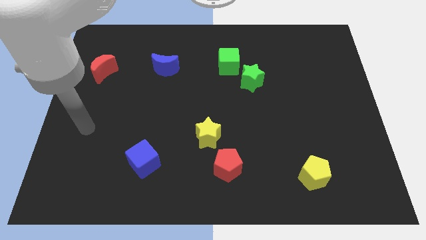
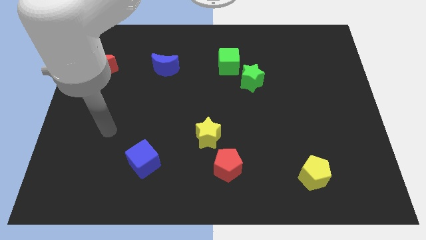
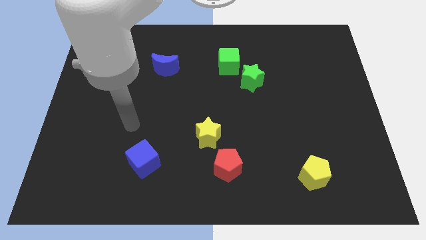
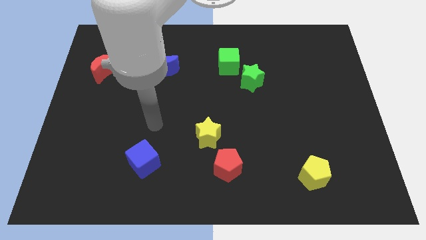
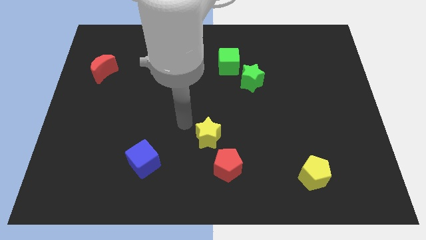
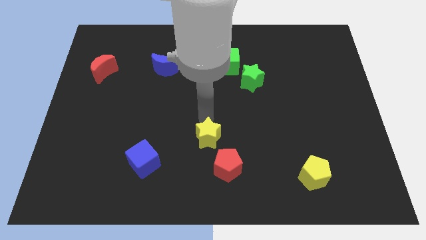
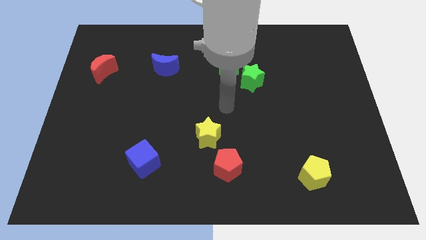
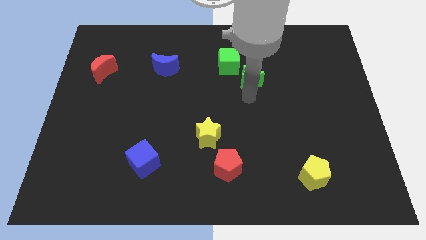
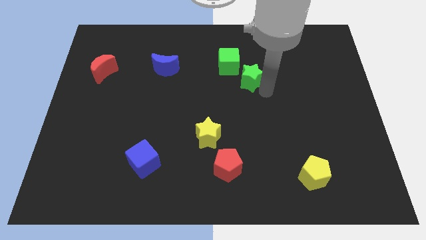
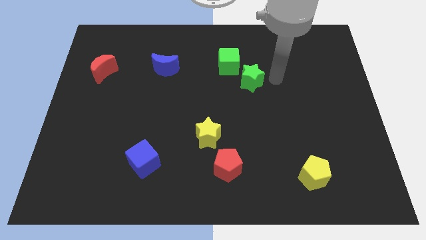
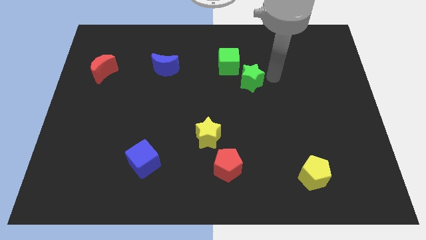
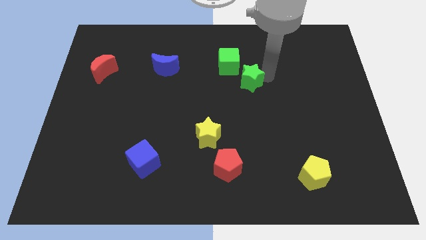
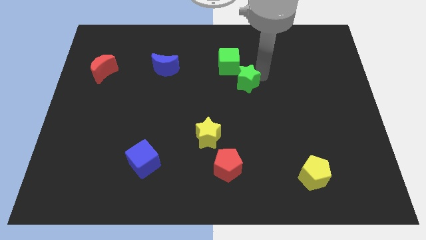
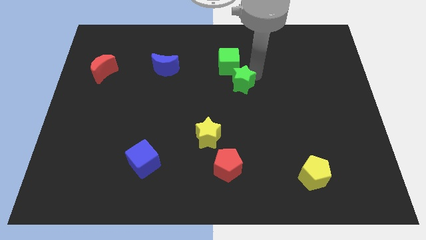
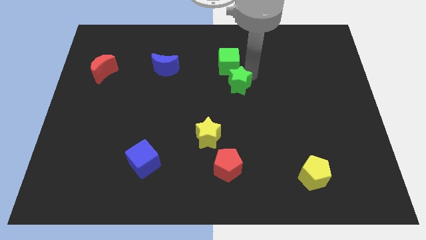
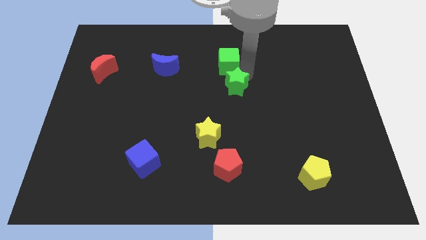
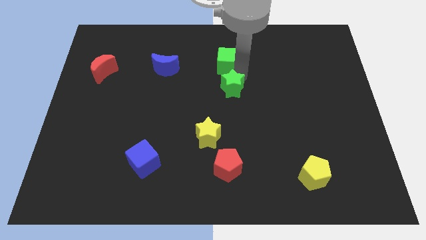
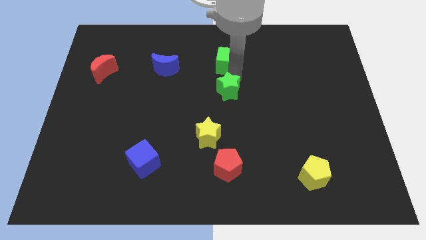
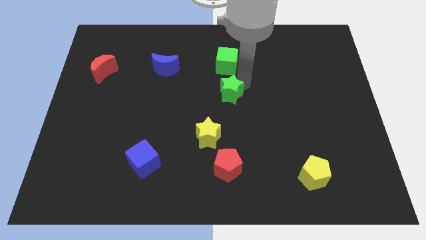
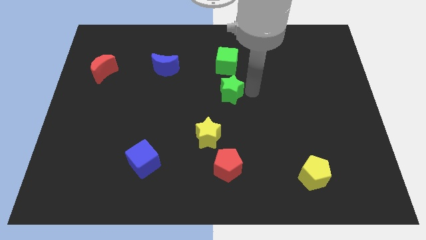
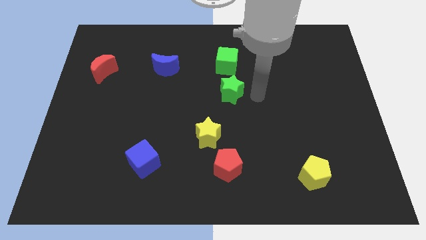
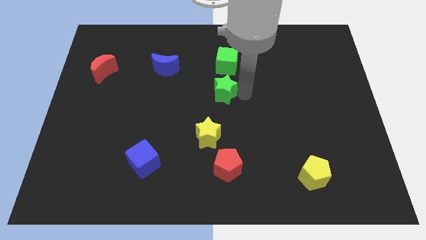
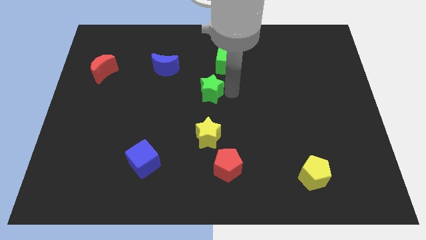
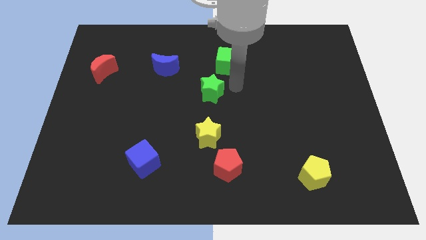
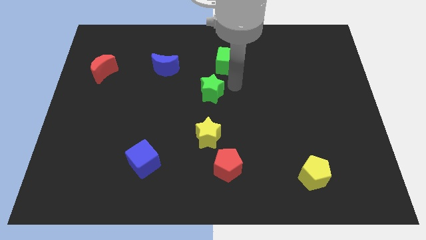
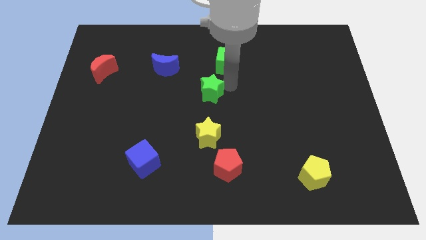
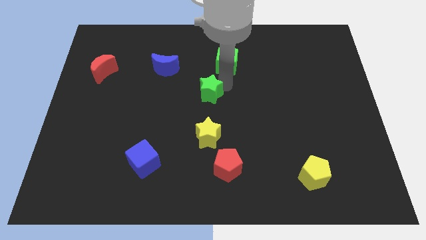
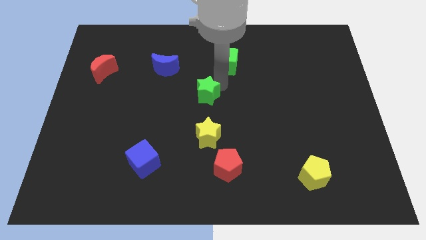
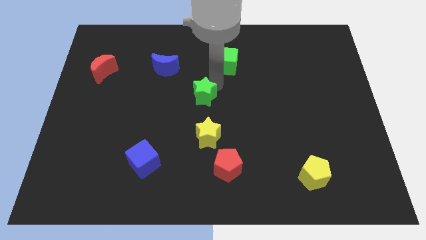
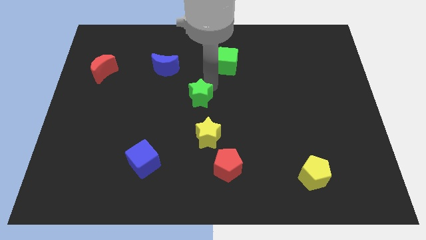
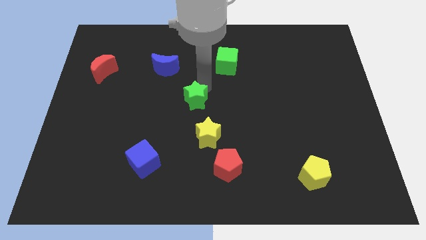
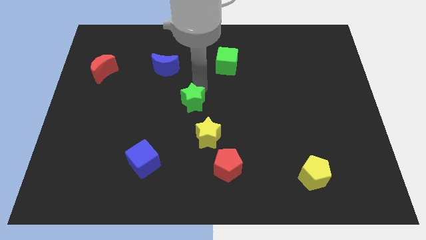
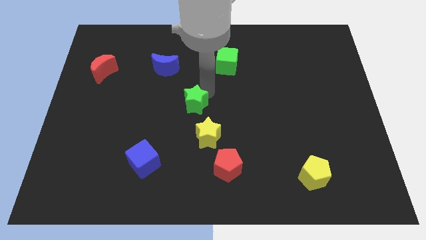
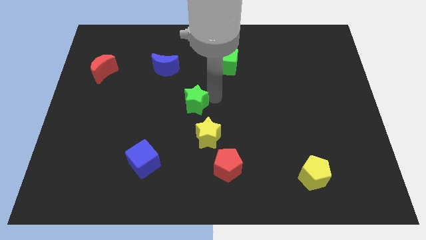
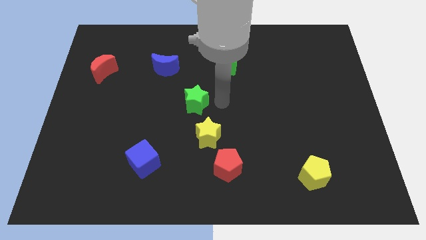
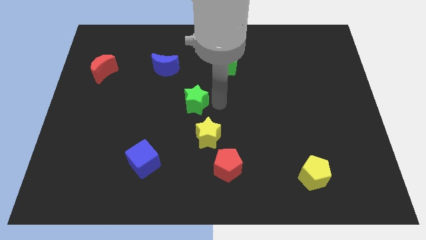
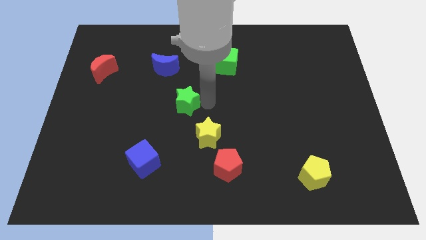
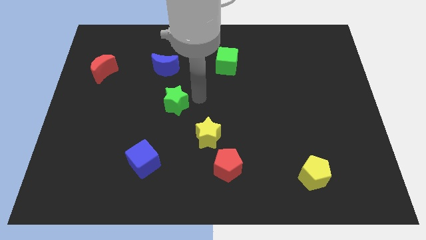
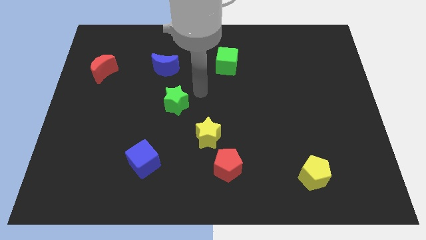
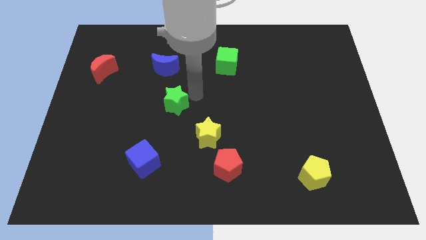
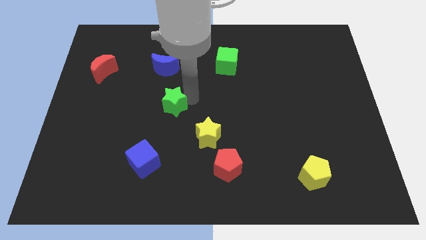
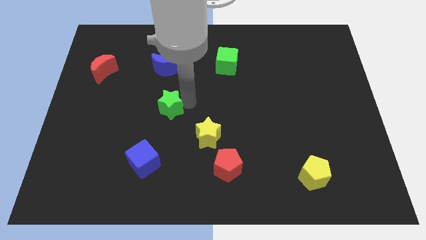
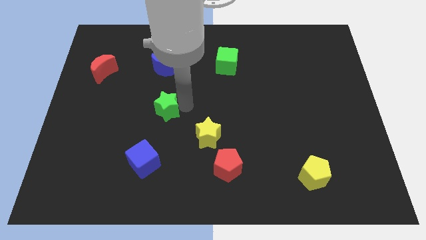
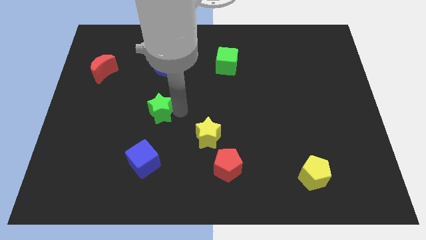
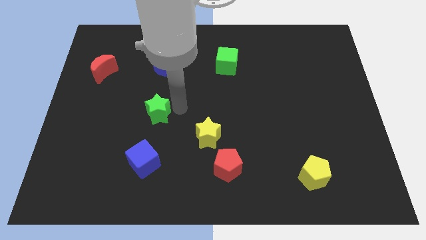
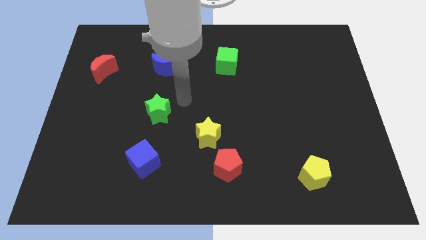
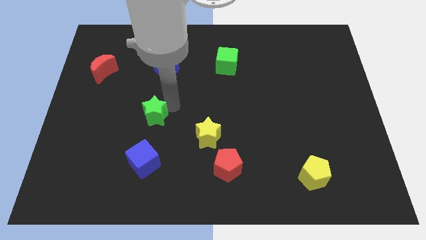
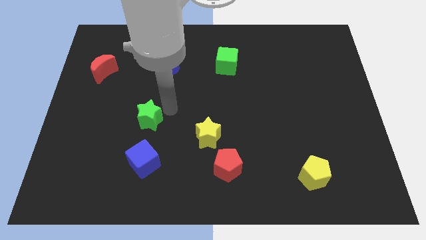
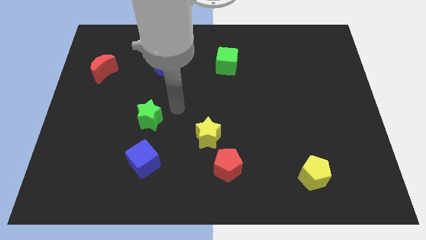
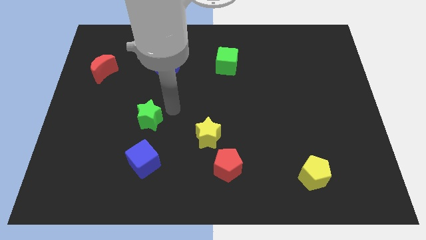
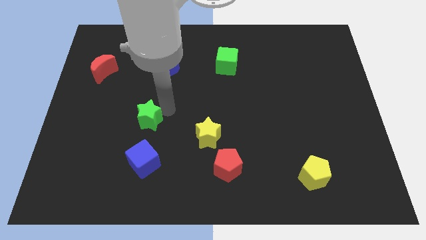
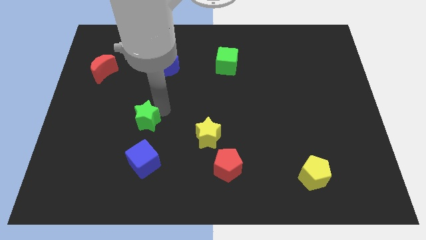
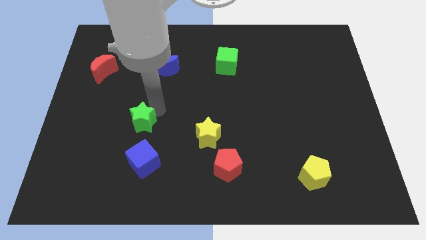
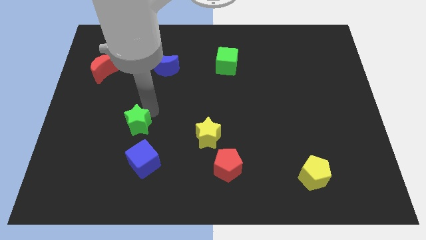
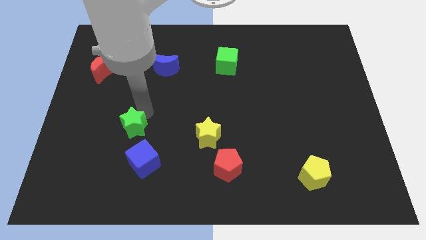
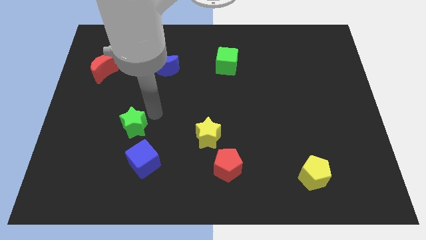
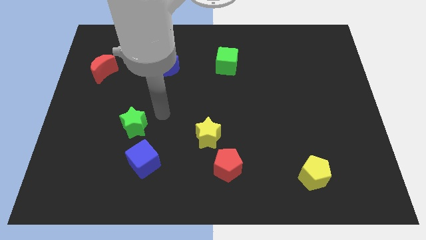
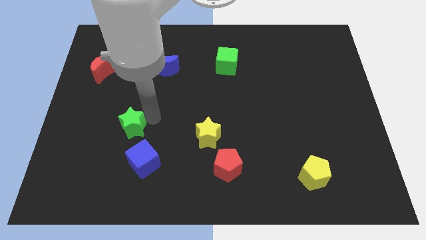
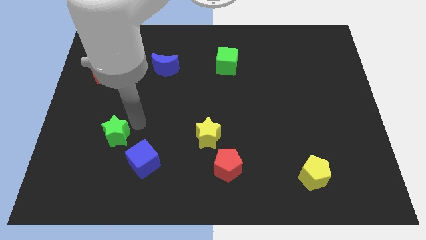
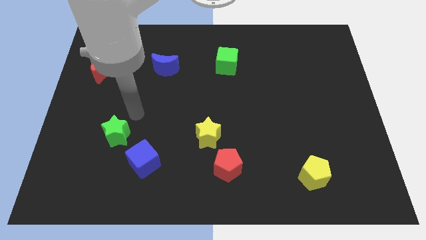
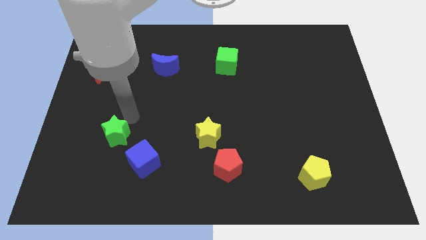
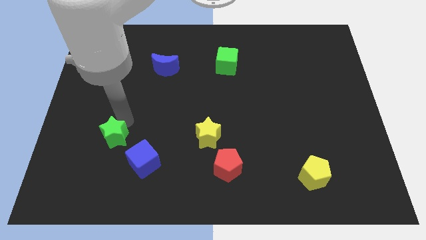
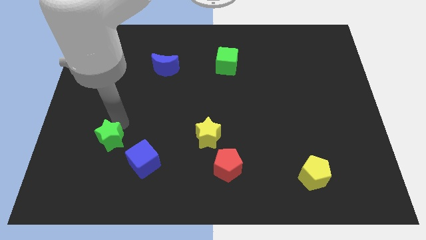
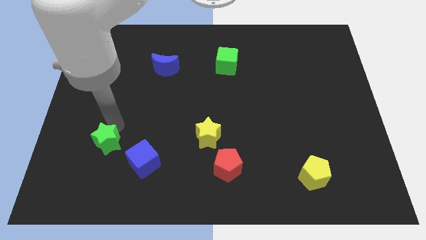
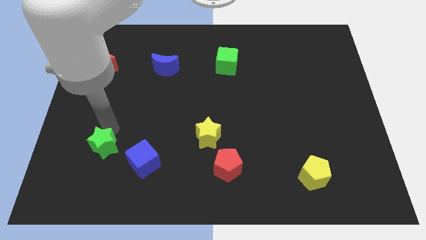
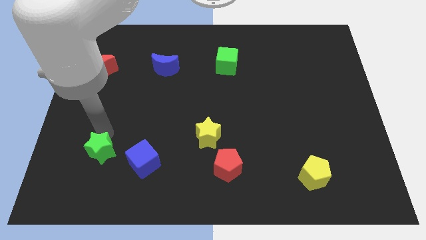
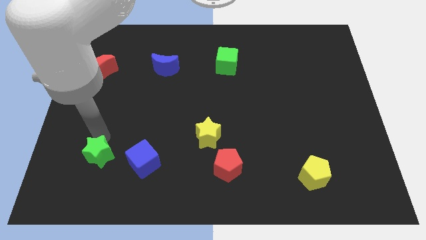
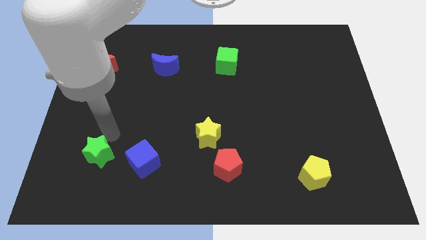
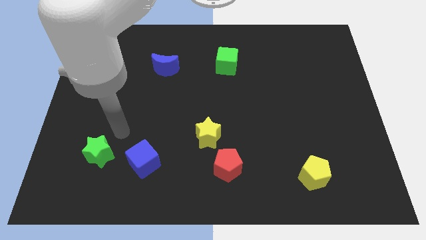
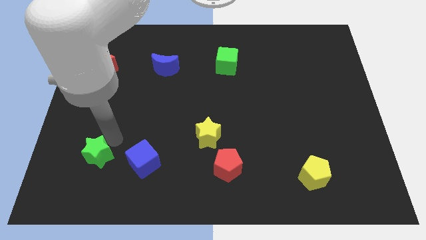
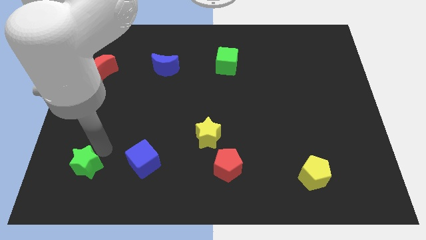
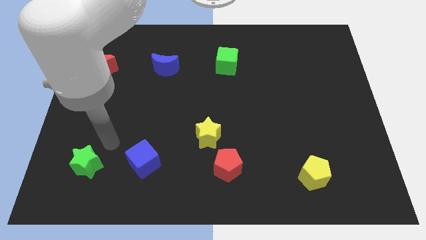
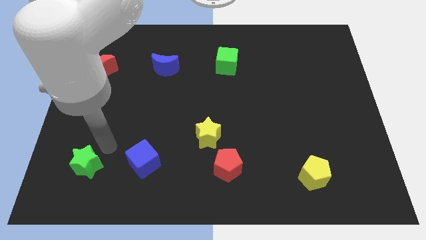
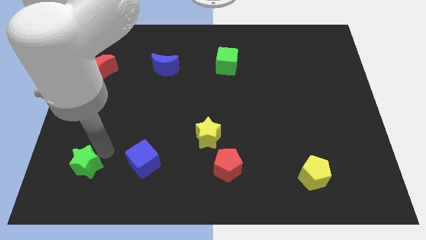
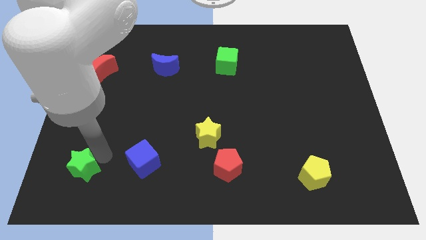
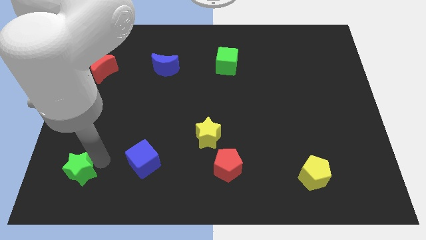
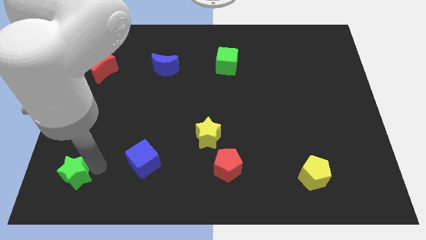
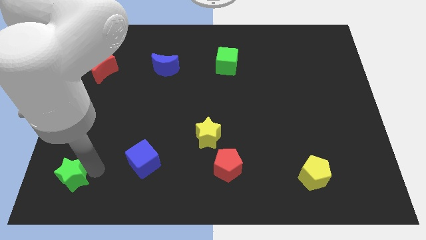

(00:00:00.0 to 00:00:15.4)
put the green star to the bottom left
